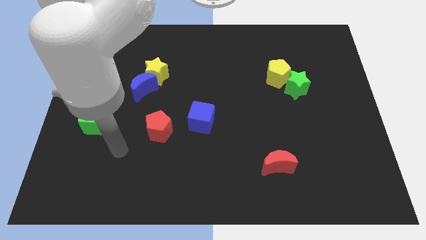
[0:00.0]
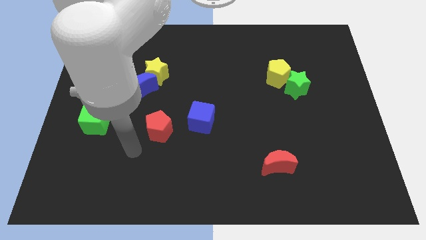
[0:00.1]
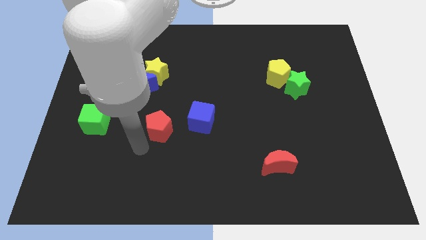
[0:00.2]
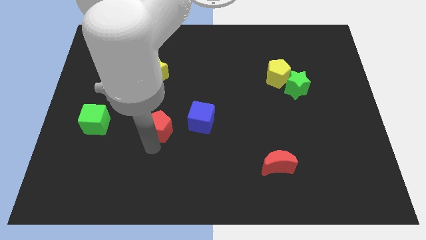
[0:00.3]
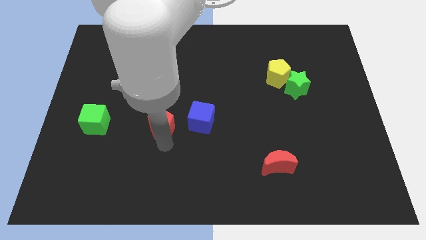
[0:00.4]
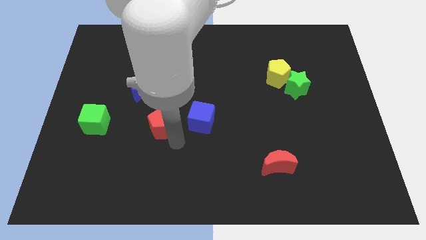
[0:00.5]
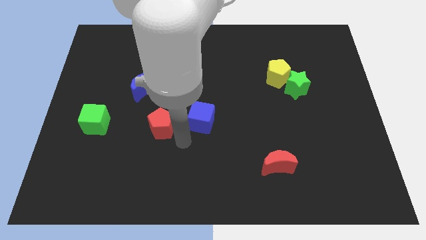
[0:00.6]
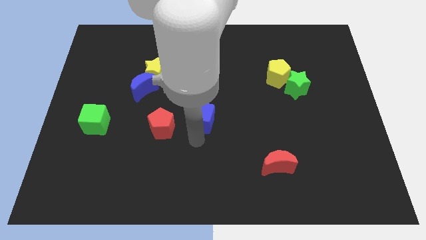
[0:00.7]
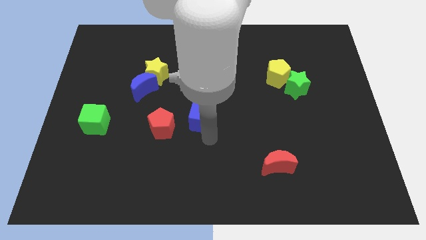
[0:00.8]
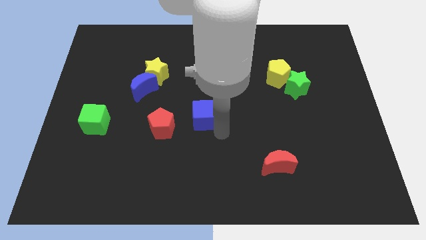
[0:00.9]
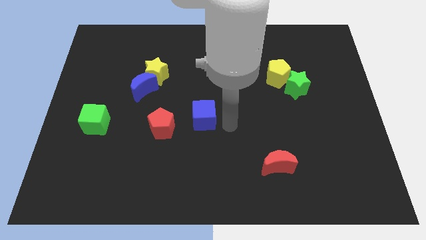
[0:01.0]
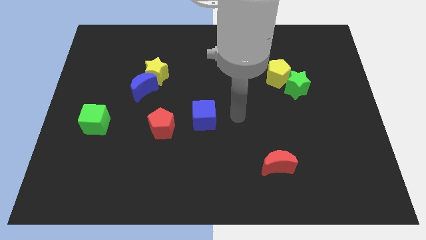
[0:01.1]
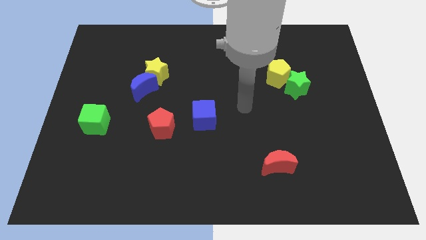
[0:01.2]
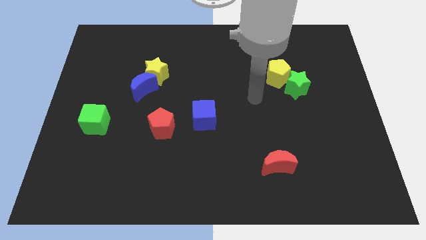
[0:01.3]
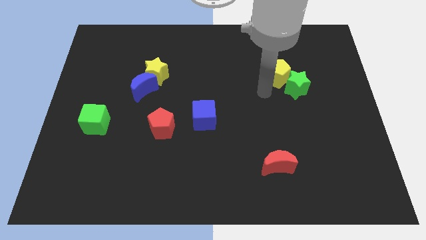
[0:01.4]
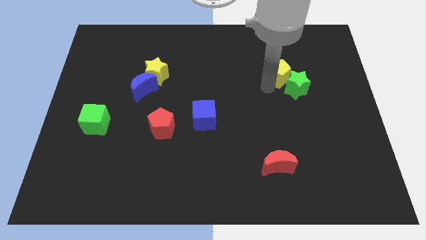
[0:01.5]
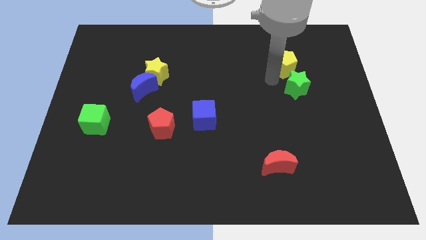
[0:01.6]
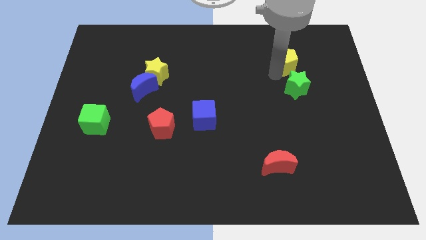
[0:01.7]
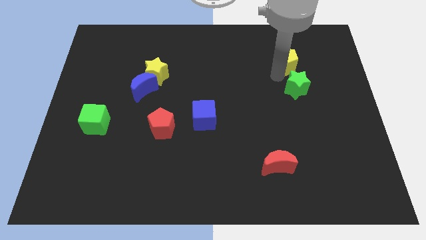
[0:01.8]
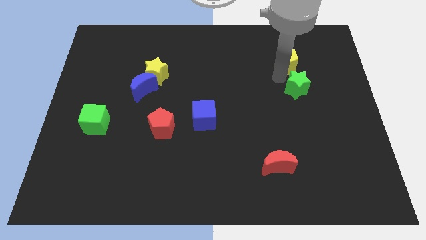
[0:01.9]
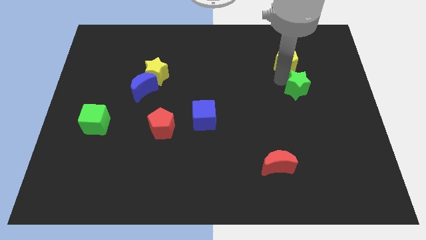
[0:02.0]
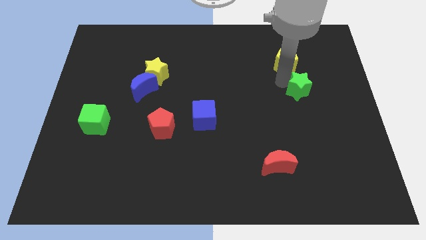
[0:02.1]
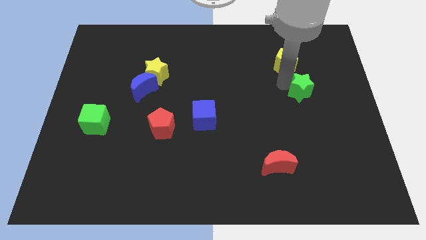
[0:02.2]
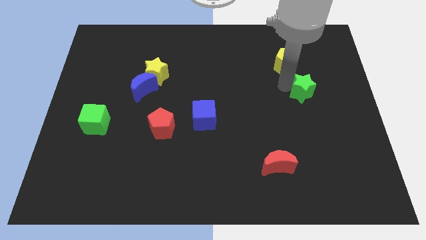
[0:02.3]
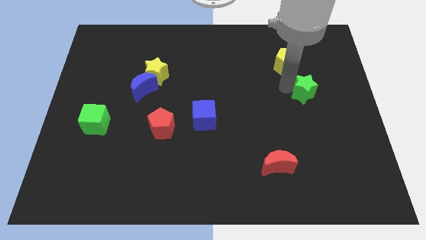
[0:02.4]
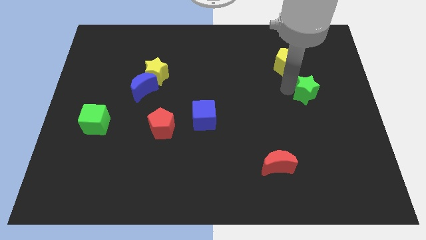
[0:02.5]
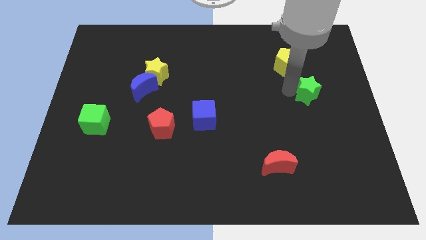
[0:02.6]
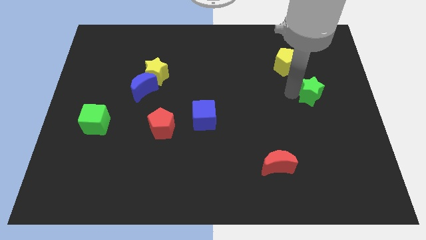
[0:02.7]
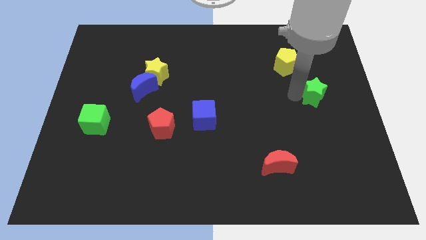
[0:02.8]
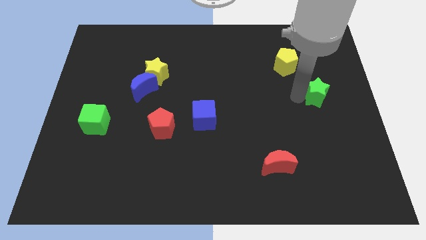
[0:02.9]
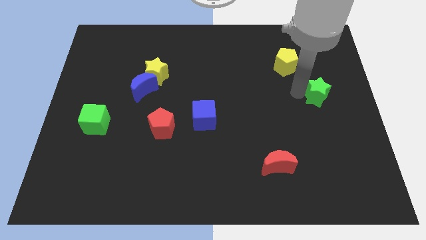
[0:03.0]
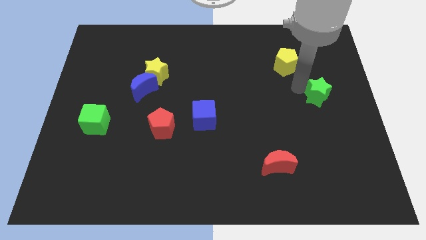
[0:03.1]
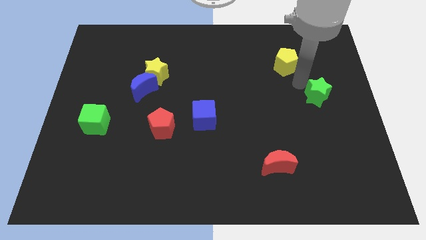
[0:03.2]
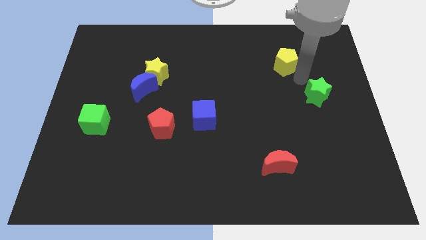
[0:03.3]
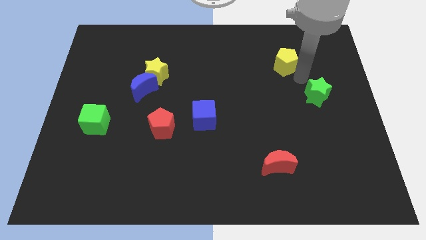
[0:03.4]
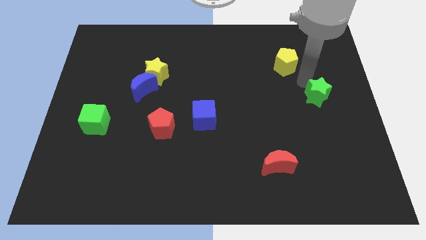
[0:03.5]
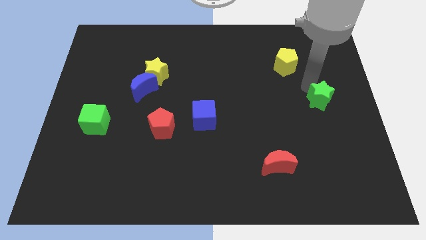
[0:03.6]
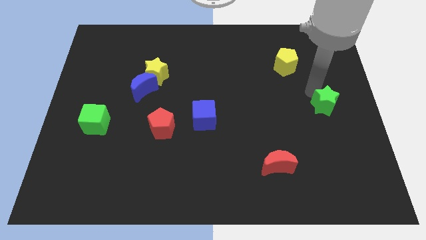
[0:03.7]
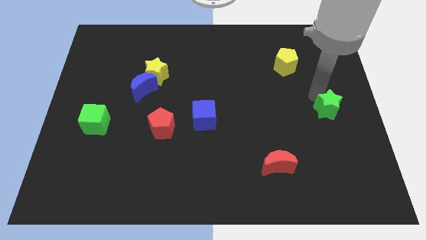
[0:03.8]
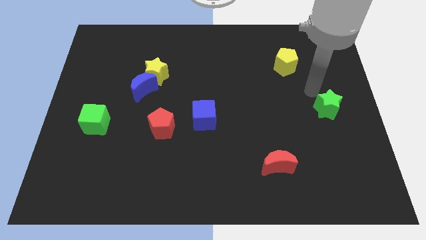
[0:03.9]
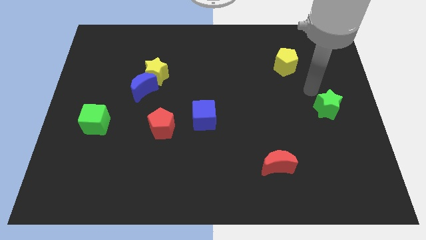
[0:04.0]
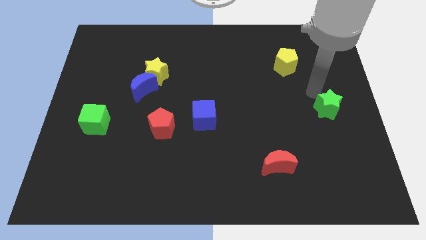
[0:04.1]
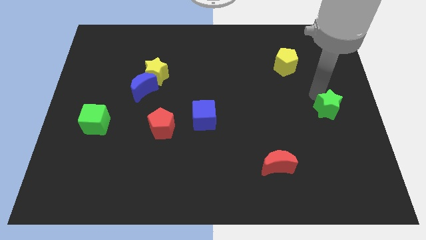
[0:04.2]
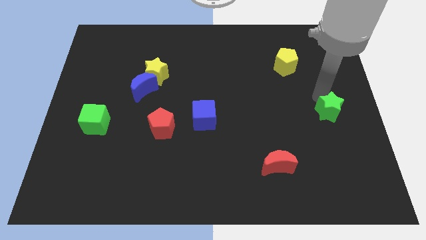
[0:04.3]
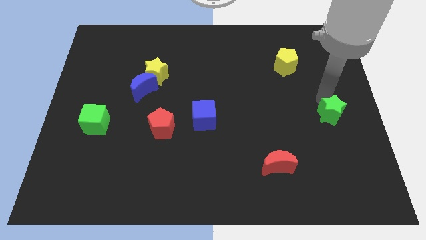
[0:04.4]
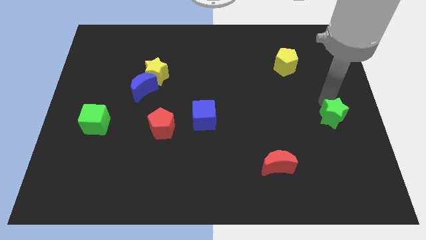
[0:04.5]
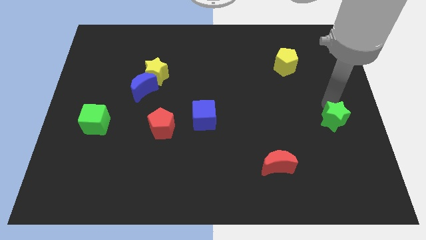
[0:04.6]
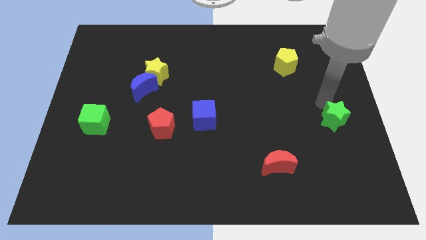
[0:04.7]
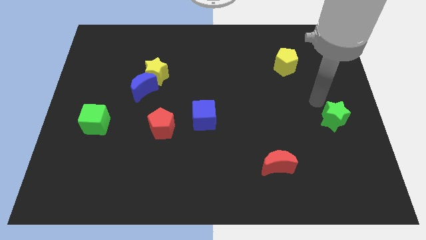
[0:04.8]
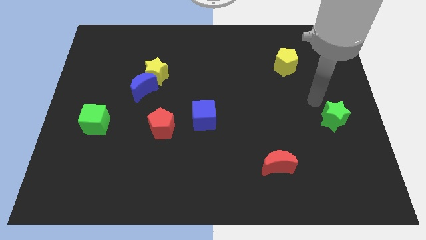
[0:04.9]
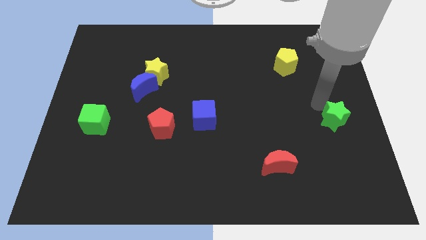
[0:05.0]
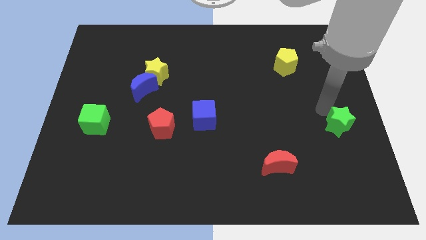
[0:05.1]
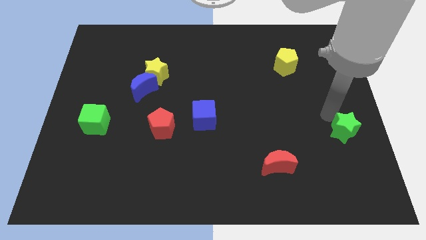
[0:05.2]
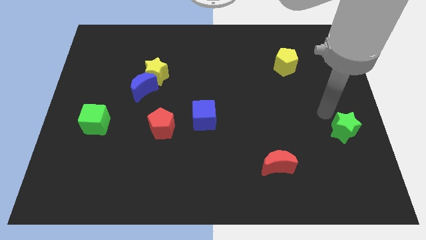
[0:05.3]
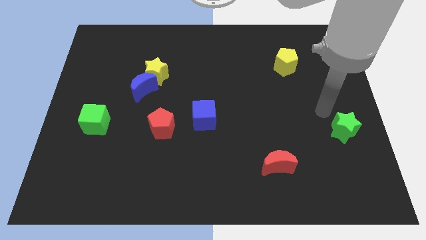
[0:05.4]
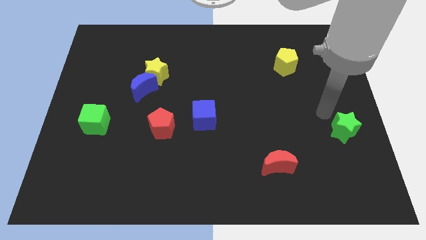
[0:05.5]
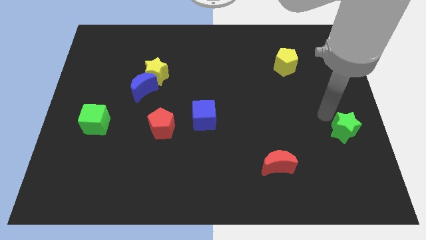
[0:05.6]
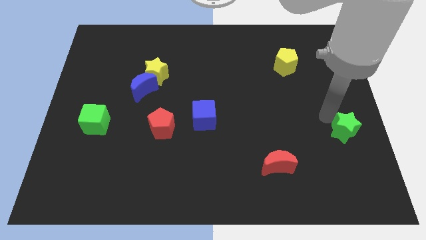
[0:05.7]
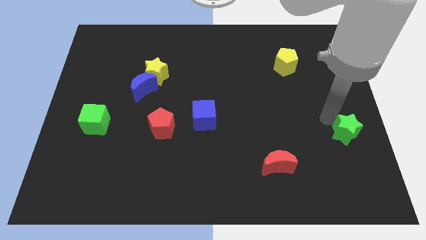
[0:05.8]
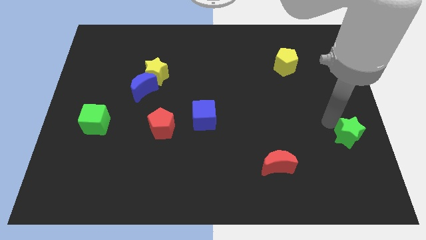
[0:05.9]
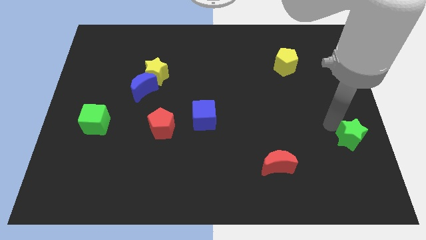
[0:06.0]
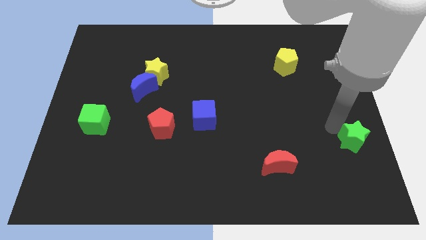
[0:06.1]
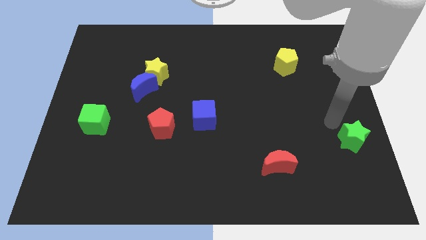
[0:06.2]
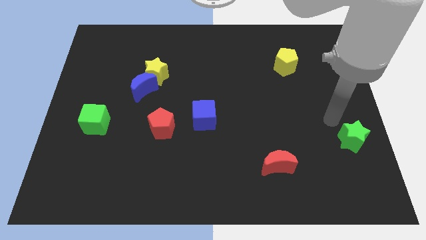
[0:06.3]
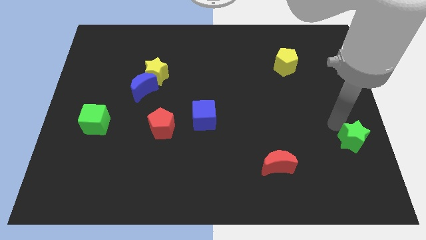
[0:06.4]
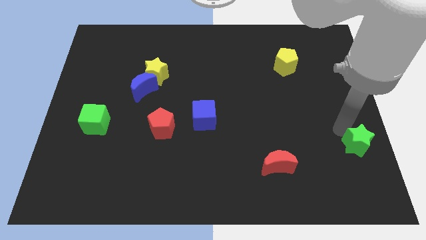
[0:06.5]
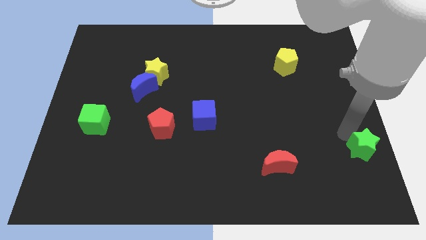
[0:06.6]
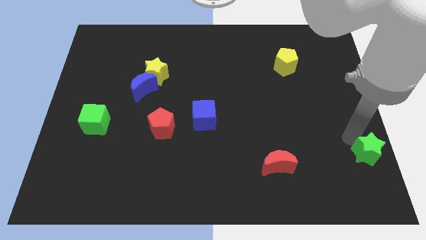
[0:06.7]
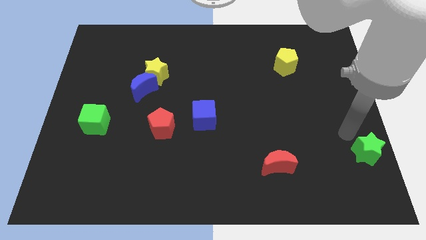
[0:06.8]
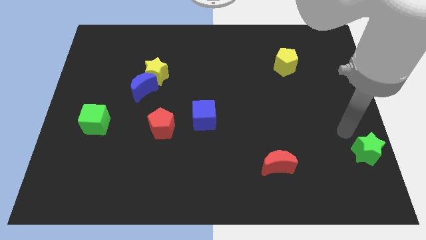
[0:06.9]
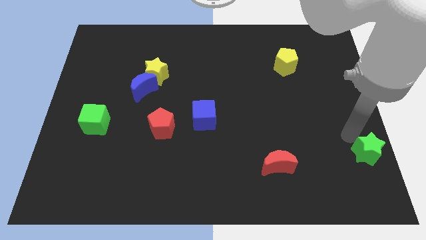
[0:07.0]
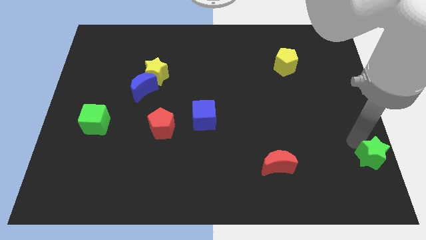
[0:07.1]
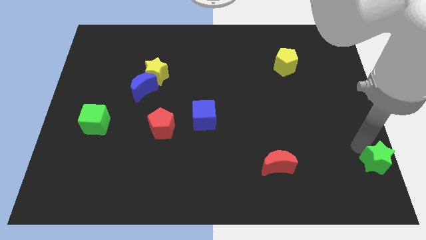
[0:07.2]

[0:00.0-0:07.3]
slide the green star to the bottom right
